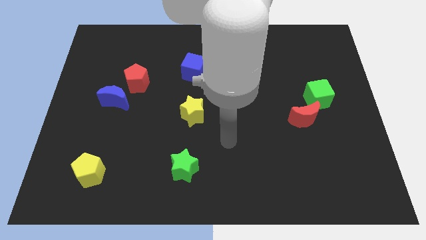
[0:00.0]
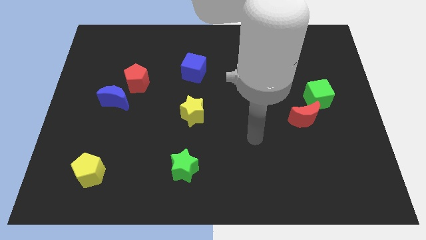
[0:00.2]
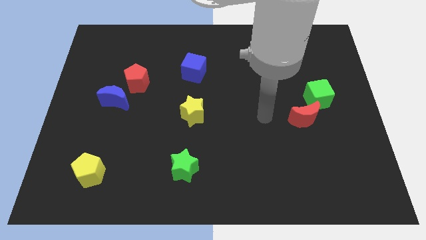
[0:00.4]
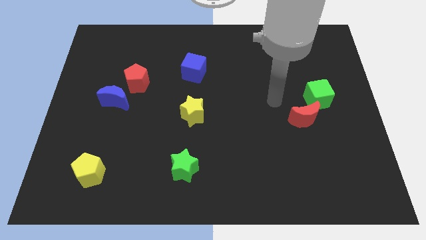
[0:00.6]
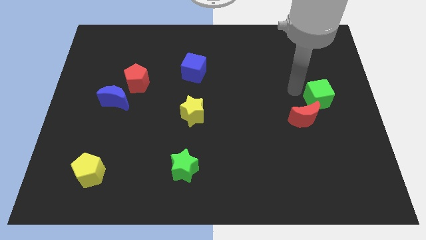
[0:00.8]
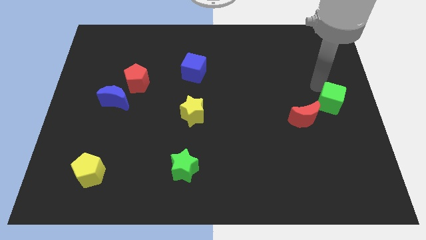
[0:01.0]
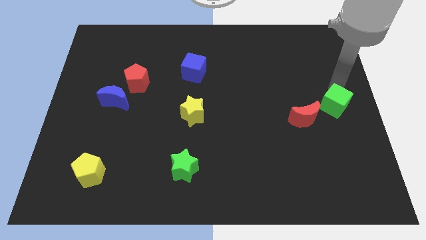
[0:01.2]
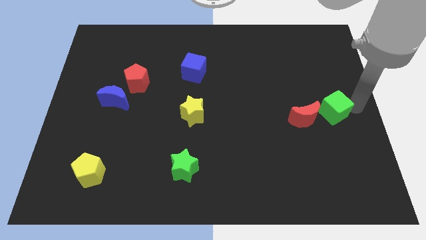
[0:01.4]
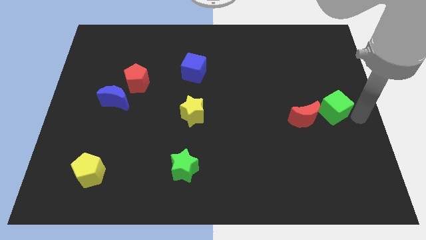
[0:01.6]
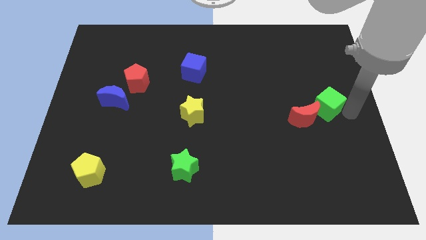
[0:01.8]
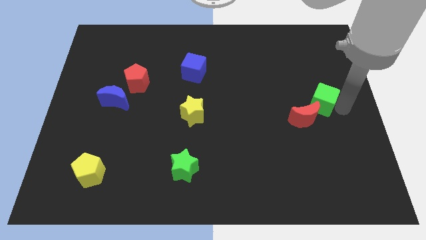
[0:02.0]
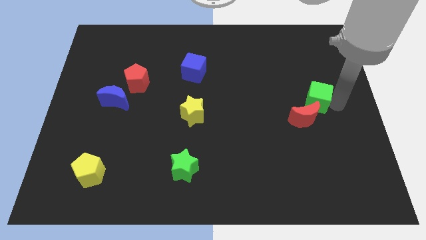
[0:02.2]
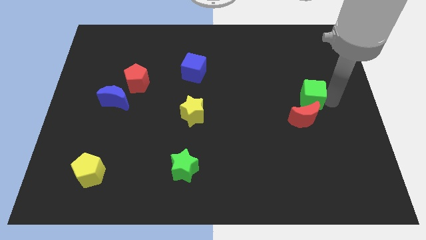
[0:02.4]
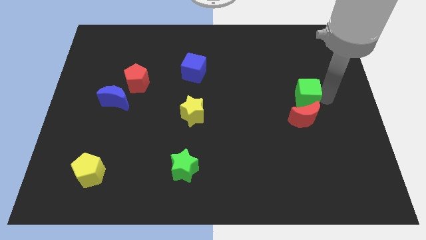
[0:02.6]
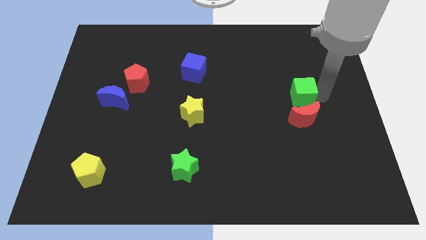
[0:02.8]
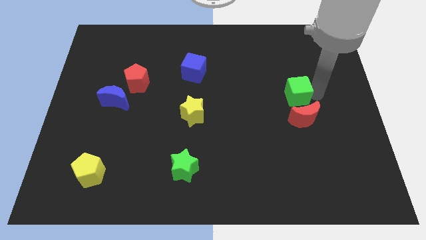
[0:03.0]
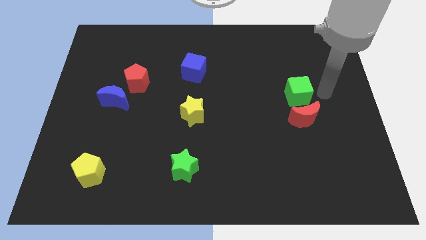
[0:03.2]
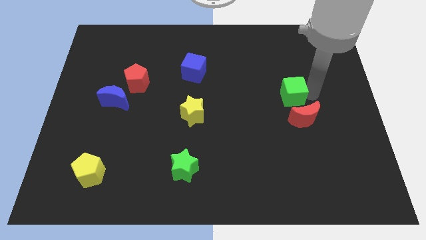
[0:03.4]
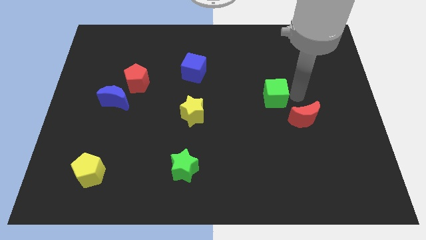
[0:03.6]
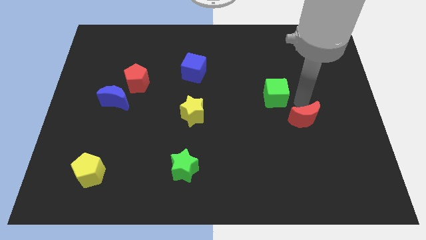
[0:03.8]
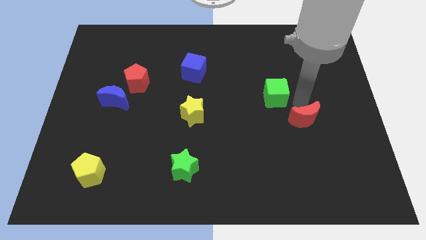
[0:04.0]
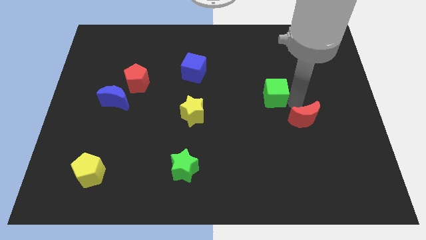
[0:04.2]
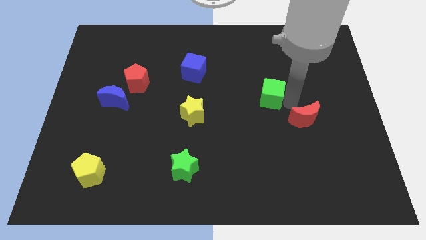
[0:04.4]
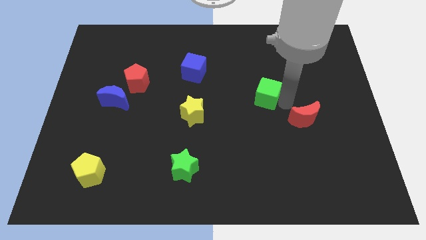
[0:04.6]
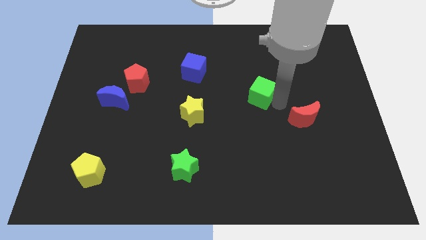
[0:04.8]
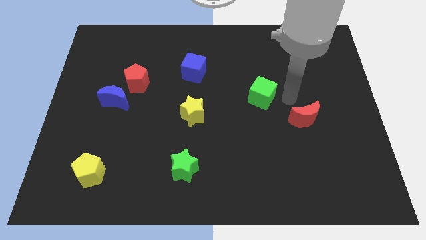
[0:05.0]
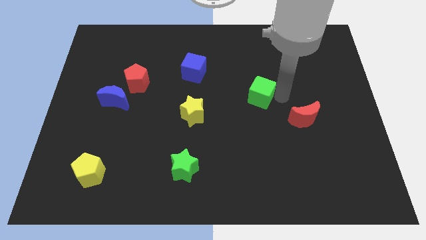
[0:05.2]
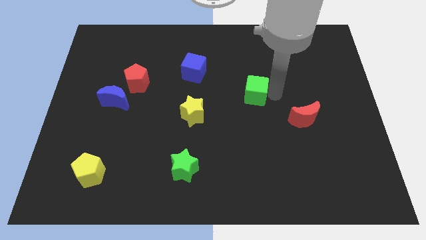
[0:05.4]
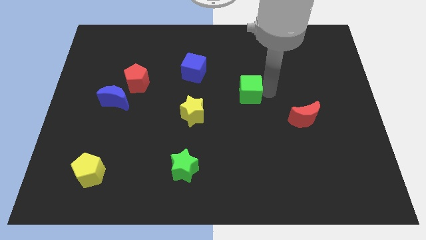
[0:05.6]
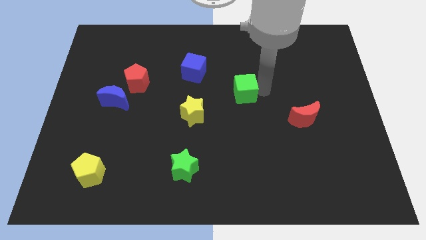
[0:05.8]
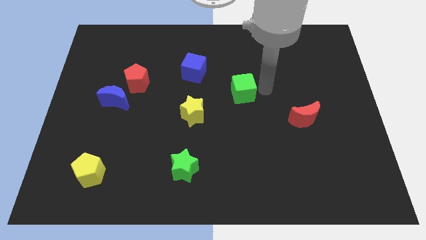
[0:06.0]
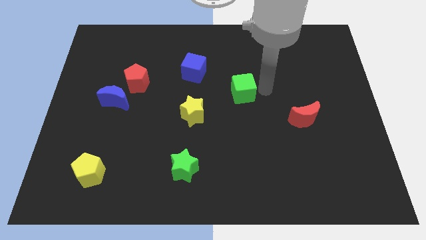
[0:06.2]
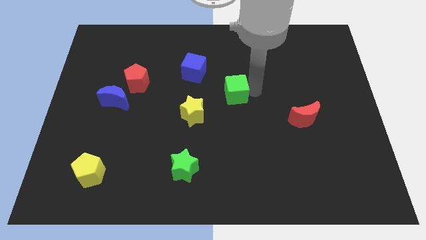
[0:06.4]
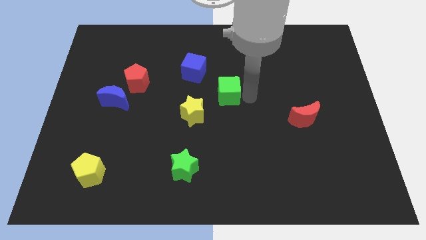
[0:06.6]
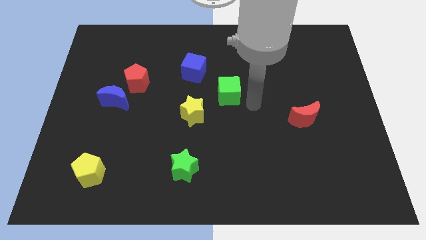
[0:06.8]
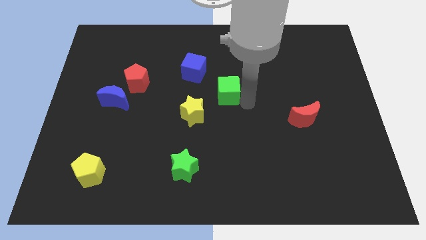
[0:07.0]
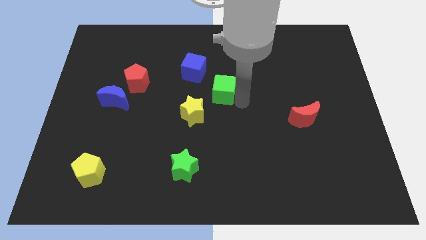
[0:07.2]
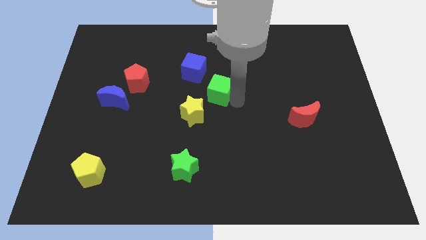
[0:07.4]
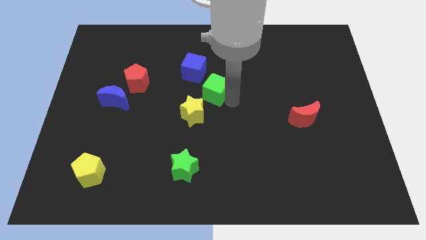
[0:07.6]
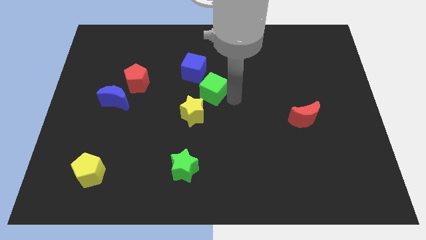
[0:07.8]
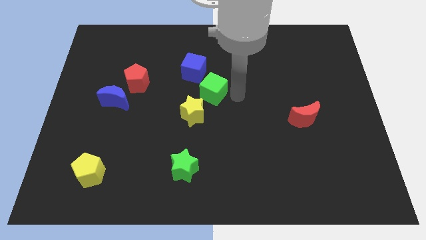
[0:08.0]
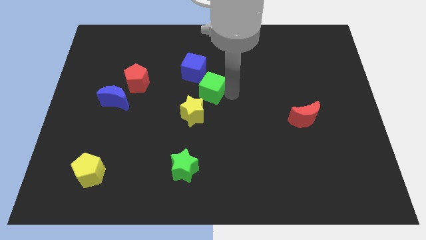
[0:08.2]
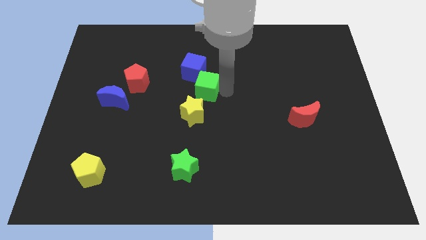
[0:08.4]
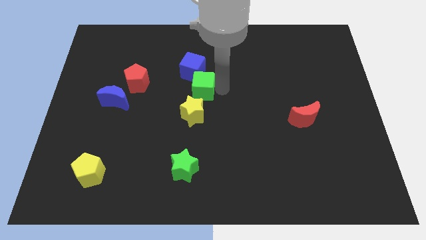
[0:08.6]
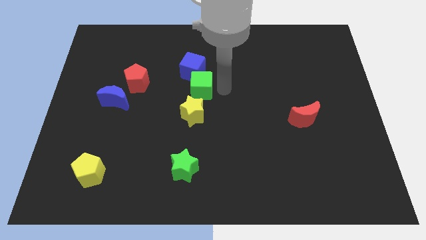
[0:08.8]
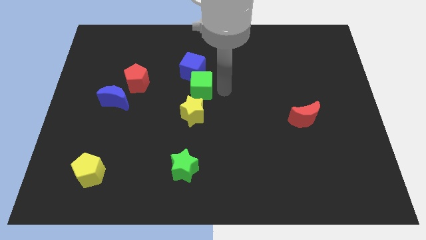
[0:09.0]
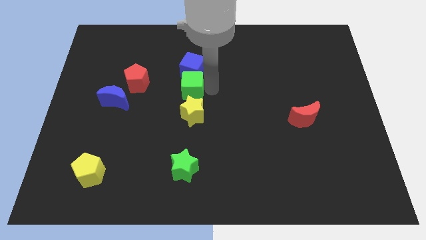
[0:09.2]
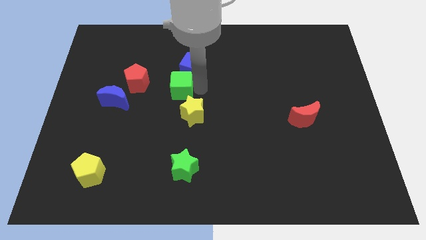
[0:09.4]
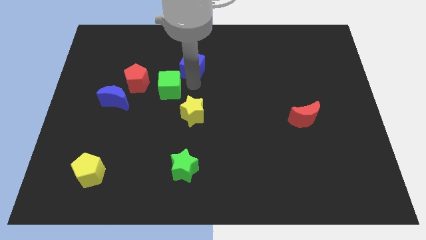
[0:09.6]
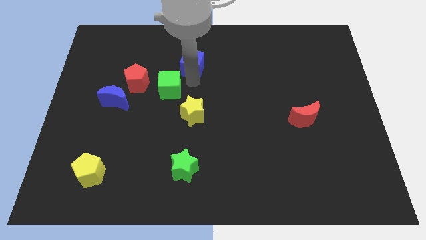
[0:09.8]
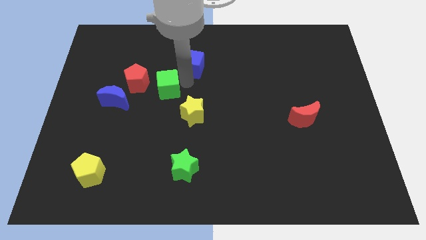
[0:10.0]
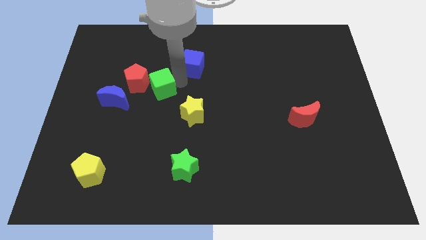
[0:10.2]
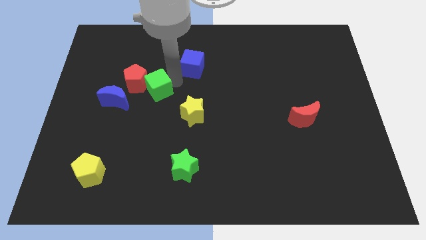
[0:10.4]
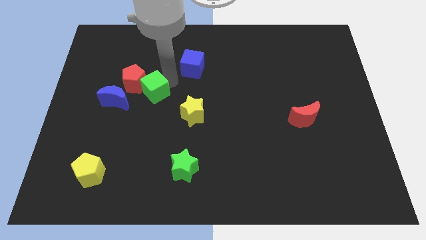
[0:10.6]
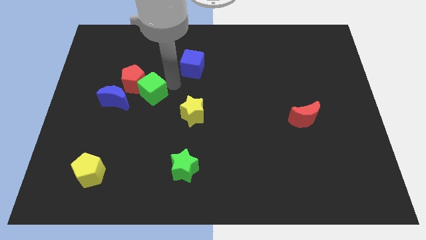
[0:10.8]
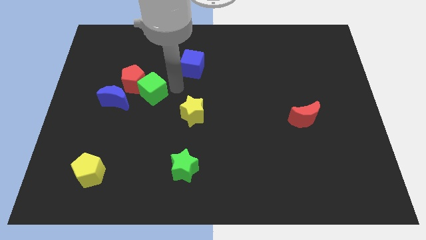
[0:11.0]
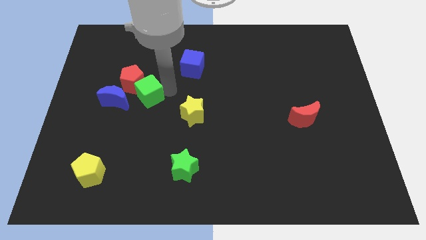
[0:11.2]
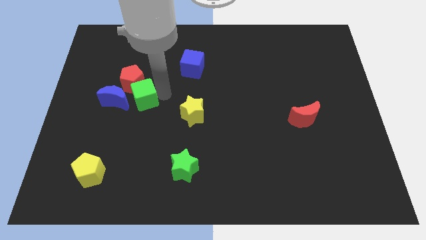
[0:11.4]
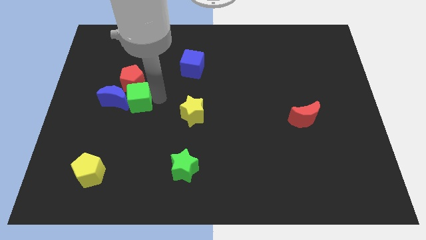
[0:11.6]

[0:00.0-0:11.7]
slide the green cube to the blue moon

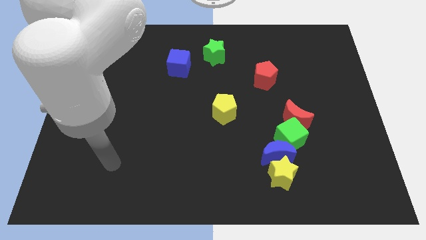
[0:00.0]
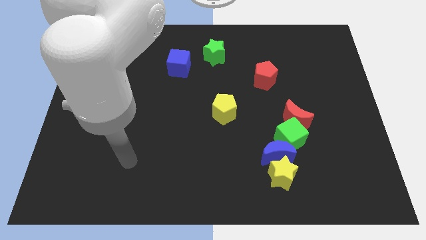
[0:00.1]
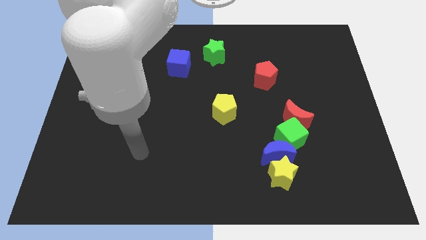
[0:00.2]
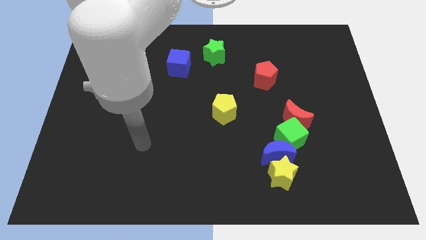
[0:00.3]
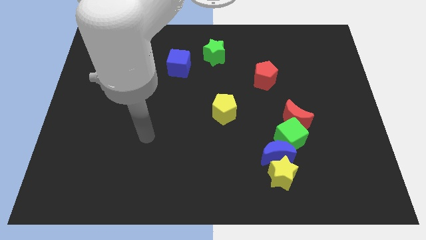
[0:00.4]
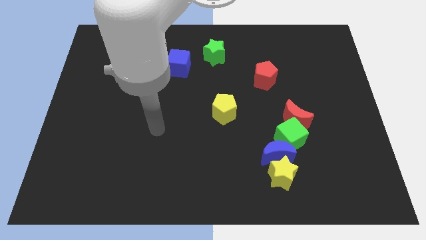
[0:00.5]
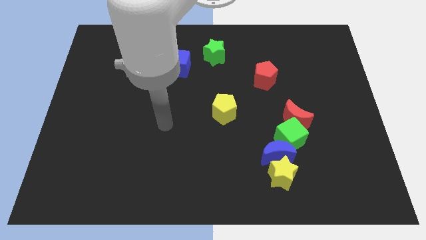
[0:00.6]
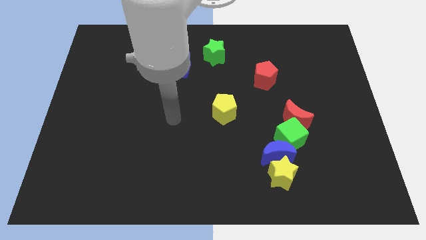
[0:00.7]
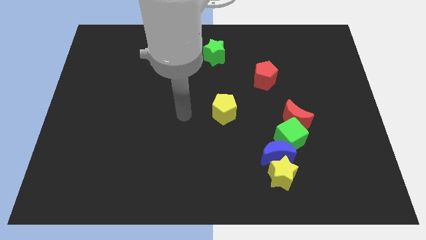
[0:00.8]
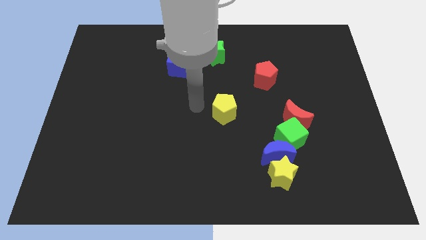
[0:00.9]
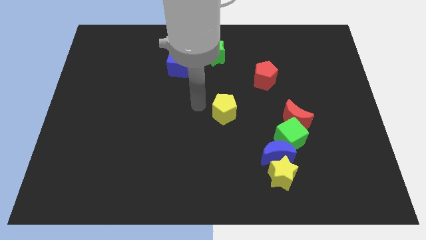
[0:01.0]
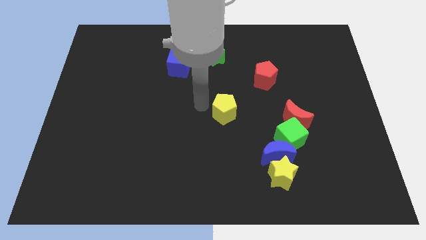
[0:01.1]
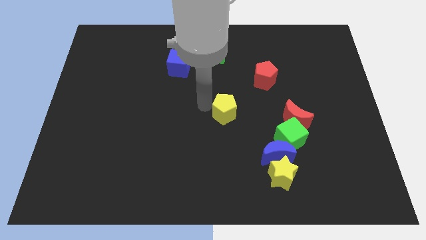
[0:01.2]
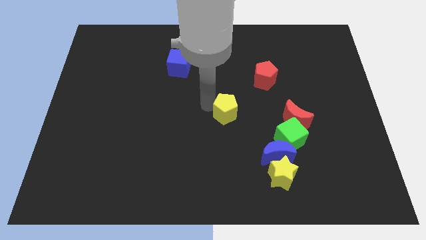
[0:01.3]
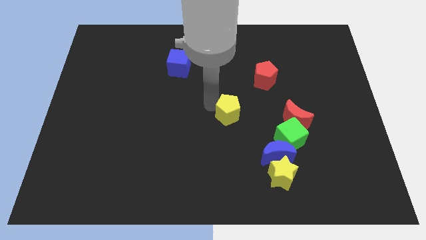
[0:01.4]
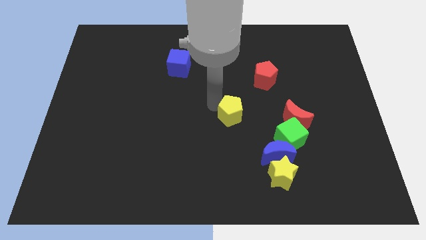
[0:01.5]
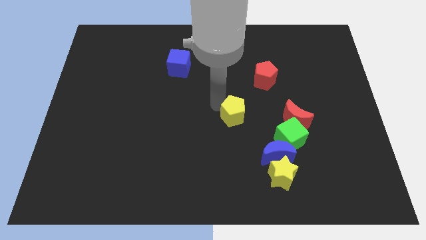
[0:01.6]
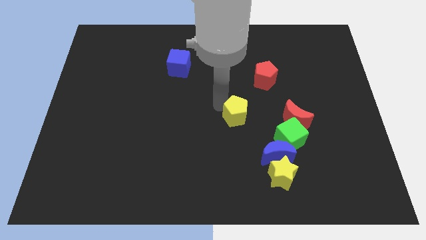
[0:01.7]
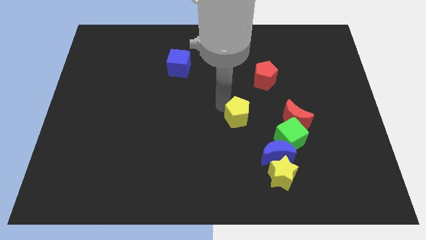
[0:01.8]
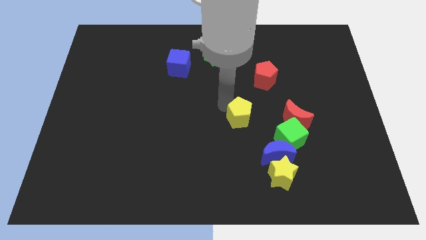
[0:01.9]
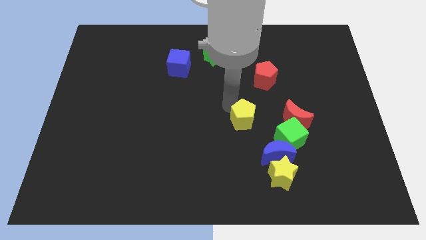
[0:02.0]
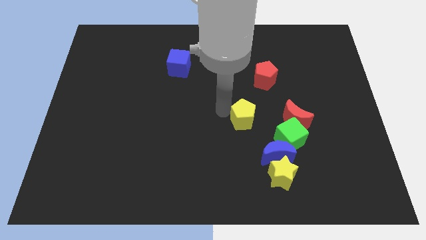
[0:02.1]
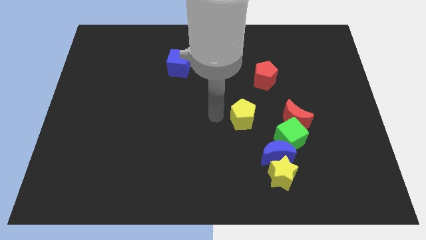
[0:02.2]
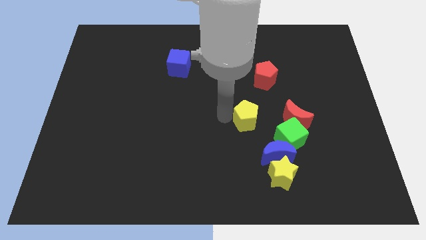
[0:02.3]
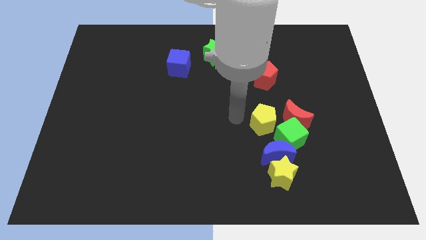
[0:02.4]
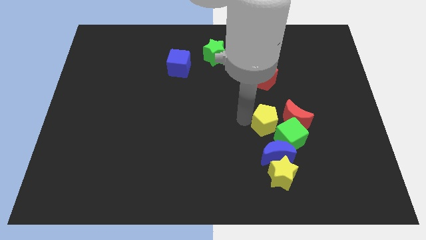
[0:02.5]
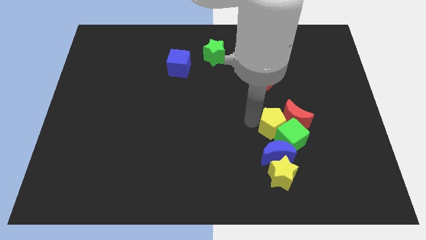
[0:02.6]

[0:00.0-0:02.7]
push the yellow pentagon to the red moon
